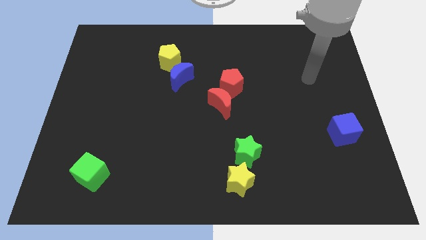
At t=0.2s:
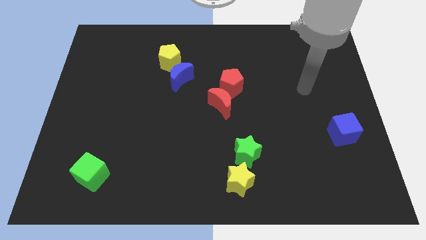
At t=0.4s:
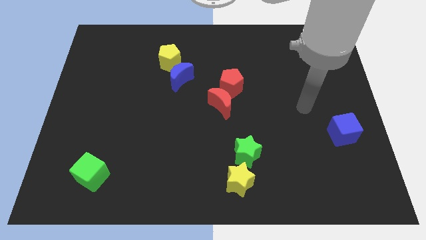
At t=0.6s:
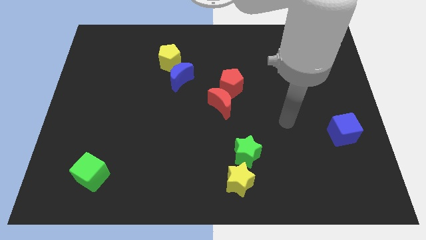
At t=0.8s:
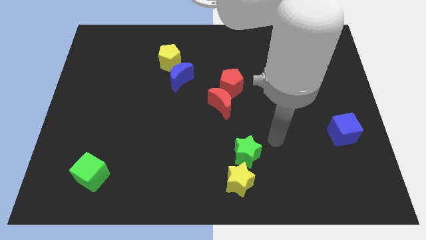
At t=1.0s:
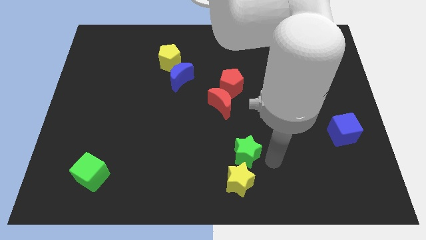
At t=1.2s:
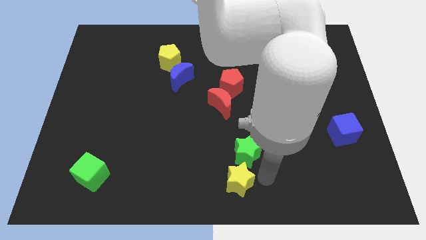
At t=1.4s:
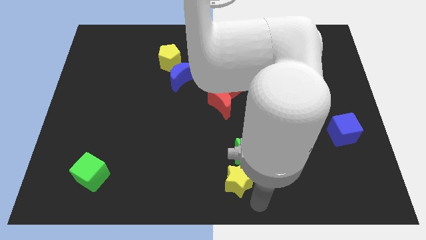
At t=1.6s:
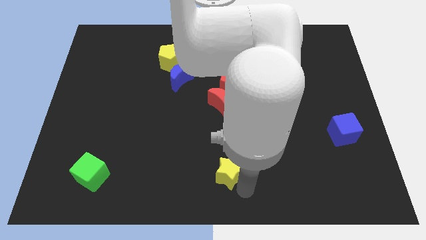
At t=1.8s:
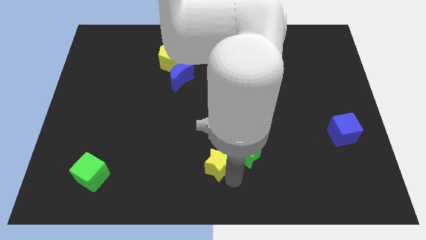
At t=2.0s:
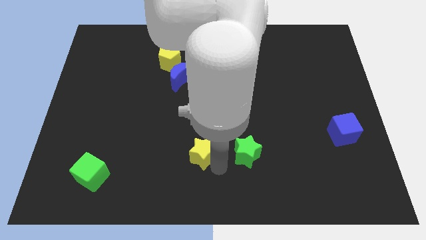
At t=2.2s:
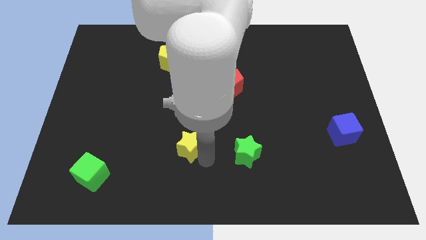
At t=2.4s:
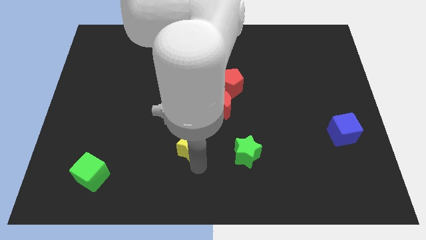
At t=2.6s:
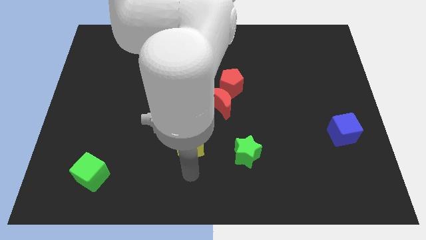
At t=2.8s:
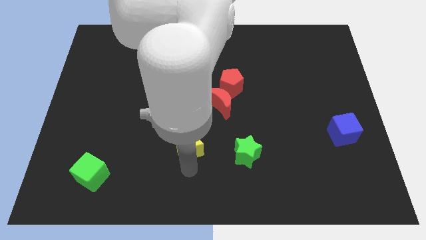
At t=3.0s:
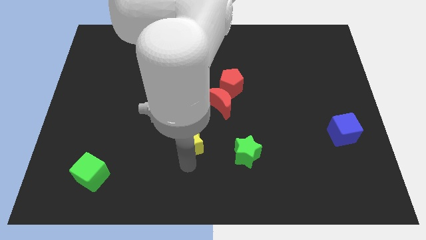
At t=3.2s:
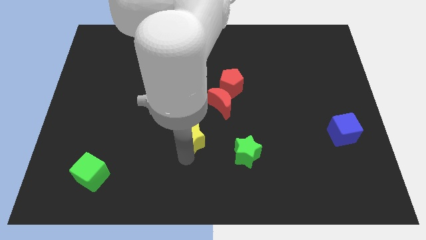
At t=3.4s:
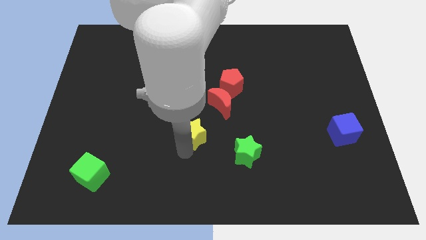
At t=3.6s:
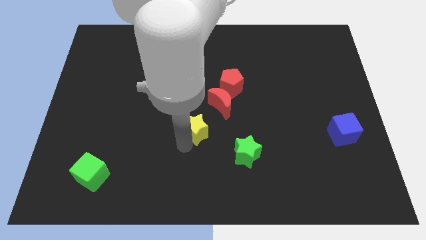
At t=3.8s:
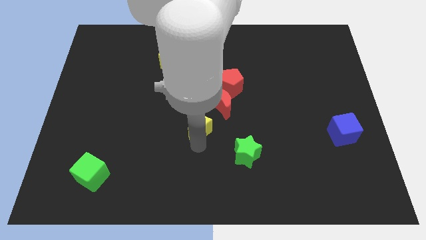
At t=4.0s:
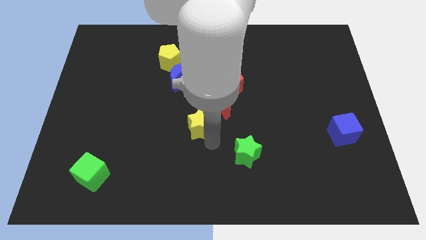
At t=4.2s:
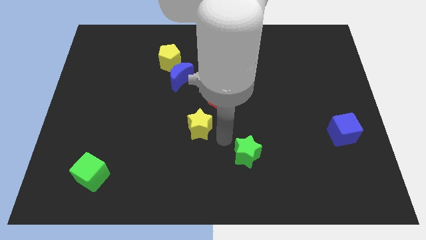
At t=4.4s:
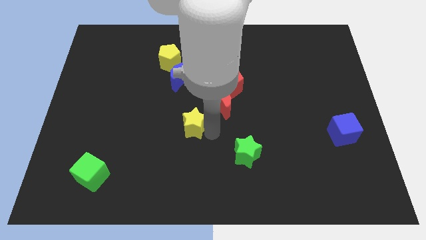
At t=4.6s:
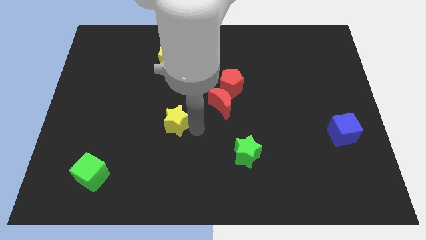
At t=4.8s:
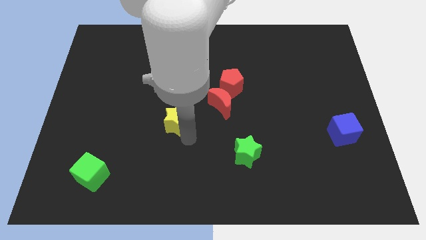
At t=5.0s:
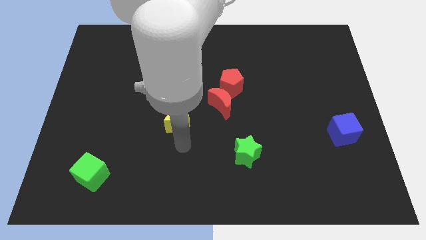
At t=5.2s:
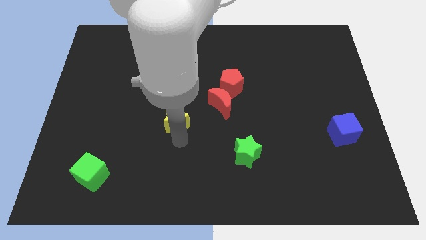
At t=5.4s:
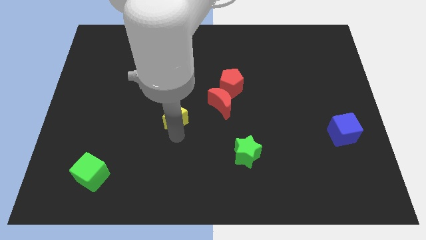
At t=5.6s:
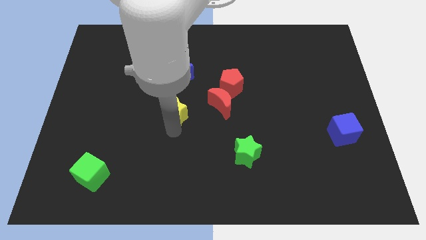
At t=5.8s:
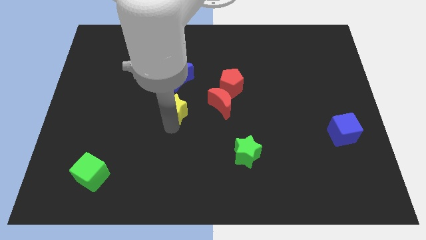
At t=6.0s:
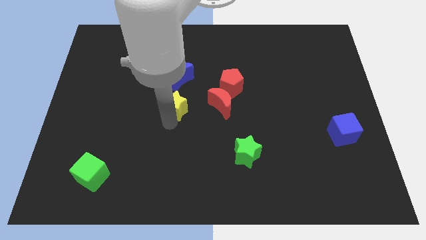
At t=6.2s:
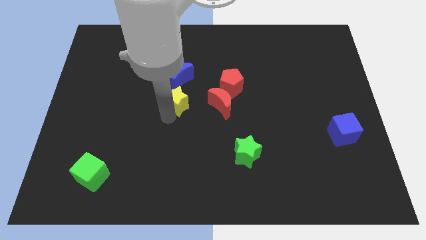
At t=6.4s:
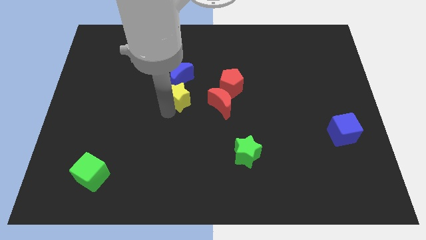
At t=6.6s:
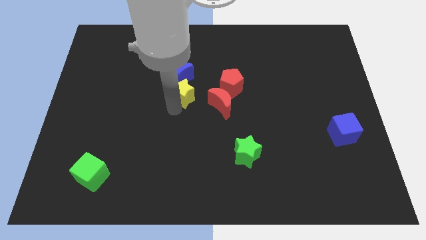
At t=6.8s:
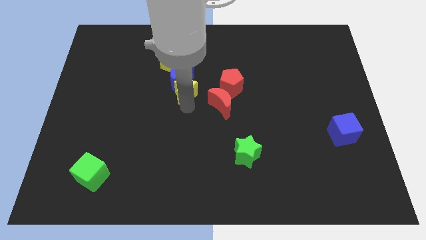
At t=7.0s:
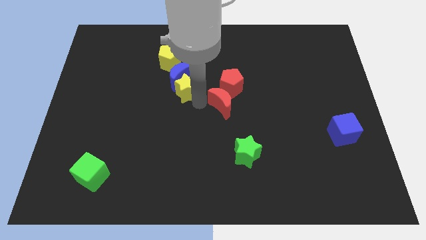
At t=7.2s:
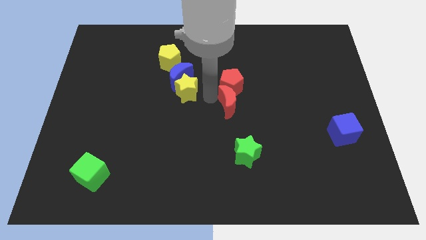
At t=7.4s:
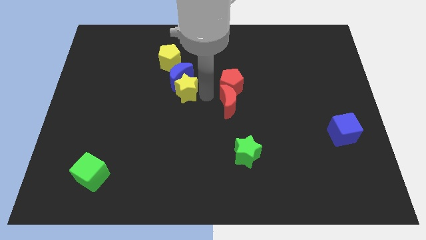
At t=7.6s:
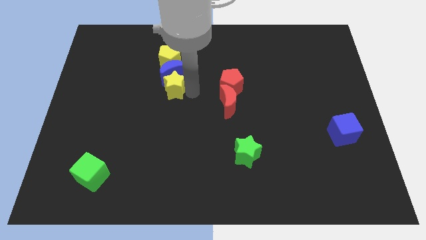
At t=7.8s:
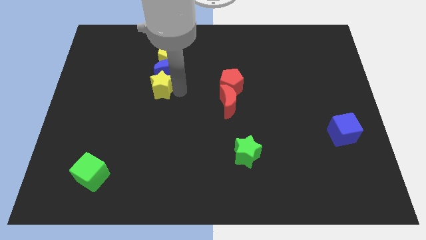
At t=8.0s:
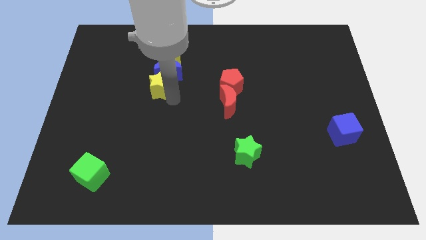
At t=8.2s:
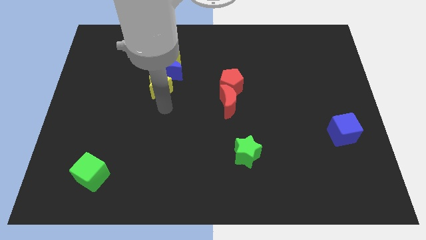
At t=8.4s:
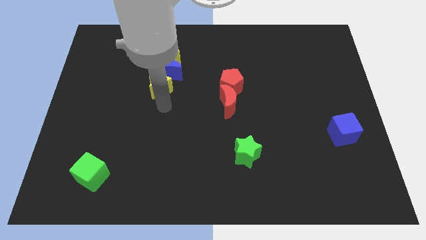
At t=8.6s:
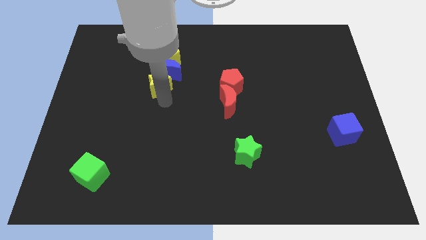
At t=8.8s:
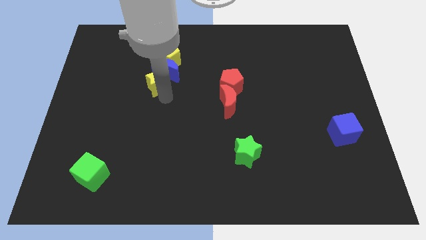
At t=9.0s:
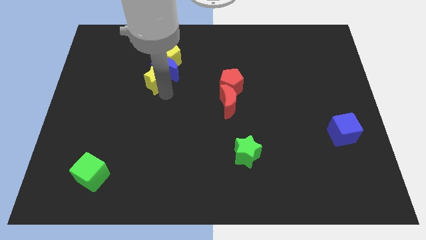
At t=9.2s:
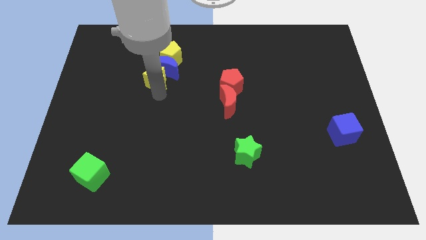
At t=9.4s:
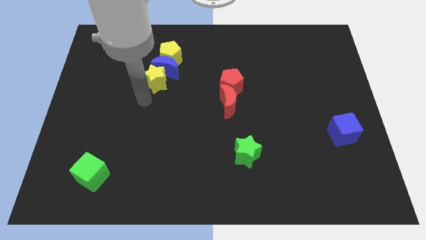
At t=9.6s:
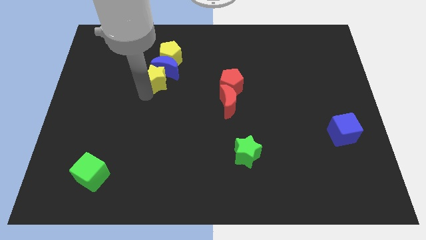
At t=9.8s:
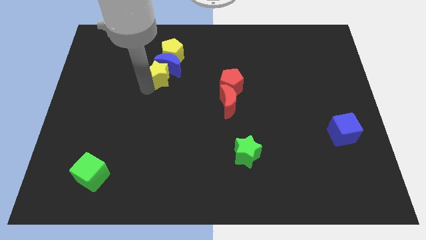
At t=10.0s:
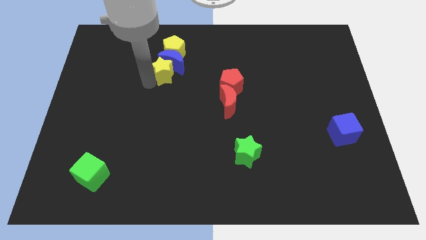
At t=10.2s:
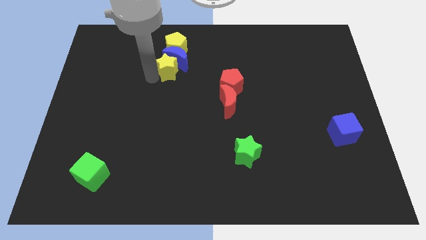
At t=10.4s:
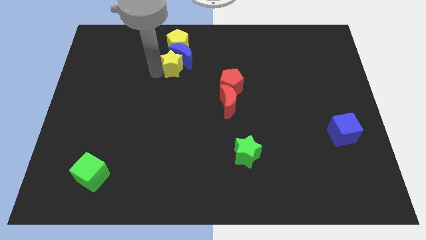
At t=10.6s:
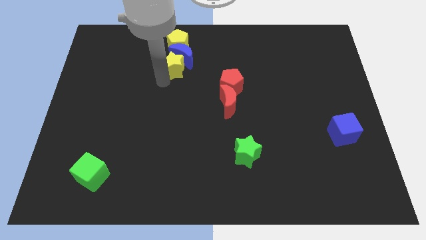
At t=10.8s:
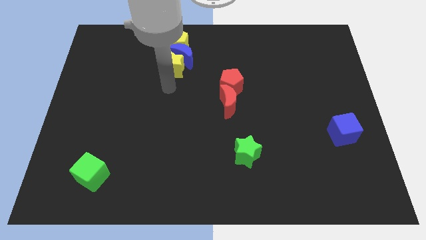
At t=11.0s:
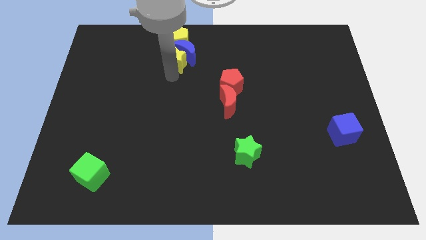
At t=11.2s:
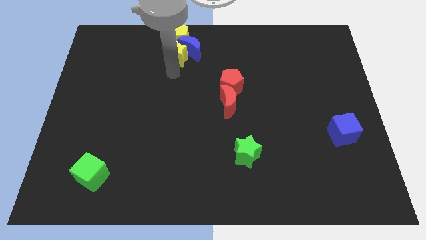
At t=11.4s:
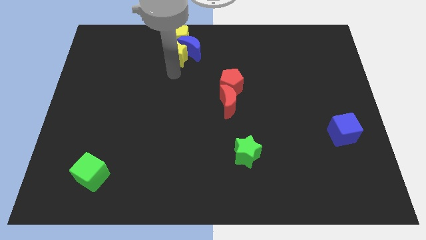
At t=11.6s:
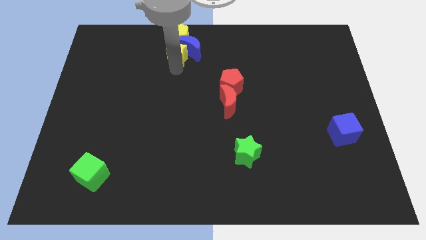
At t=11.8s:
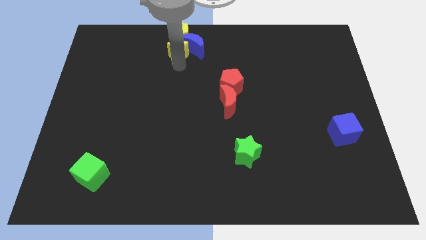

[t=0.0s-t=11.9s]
push the yellow star close to the yellow pentagon
